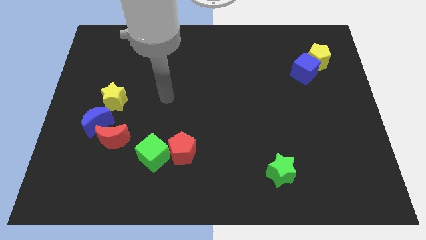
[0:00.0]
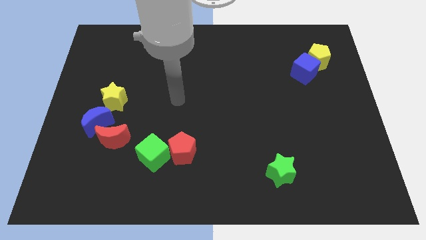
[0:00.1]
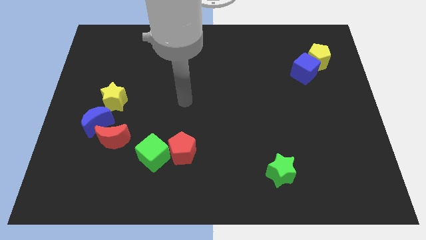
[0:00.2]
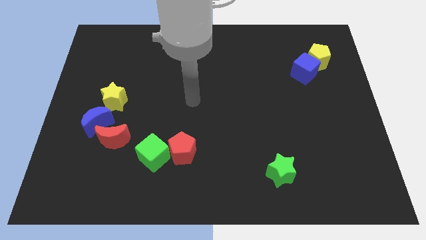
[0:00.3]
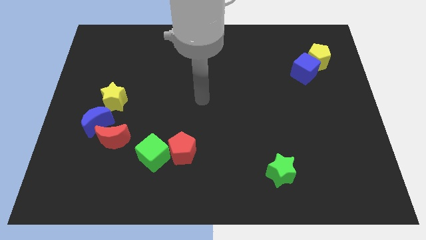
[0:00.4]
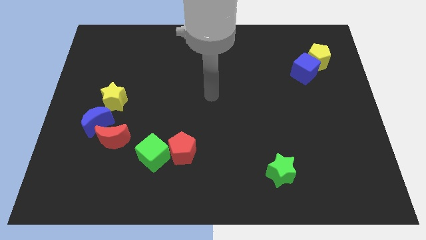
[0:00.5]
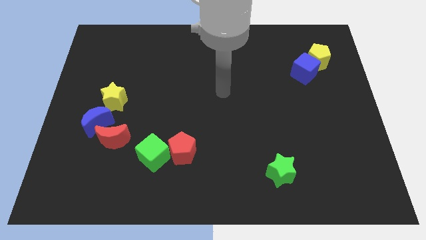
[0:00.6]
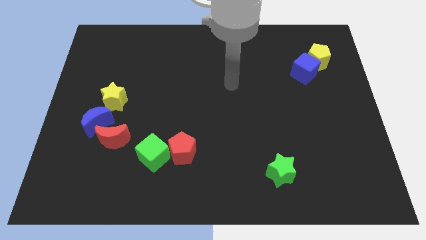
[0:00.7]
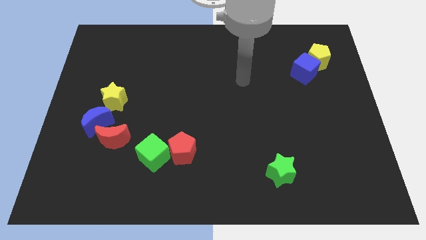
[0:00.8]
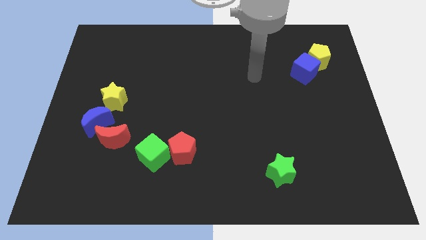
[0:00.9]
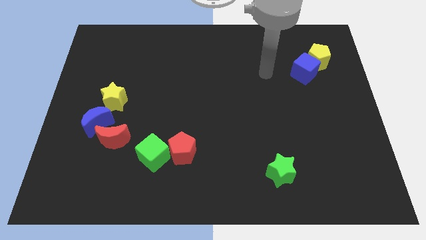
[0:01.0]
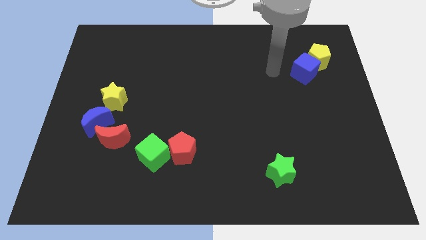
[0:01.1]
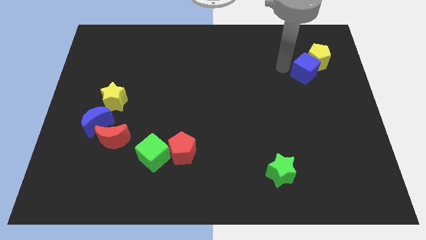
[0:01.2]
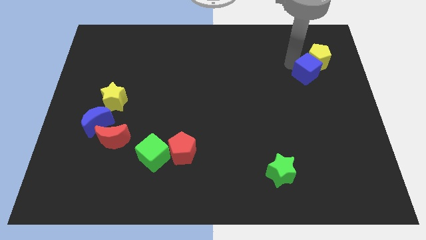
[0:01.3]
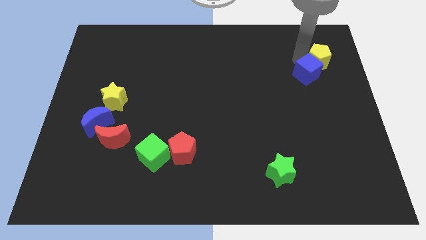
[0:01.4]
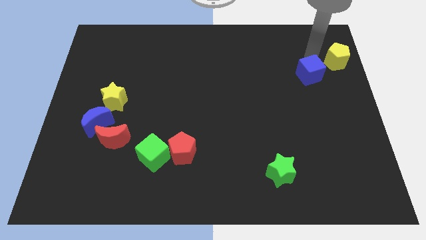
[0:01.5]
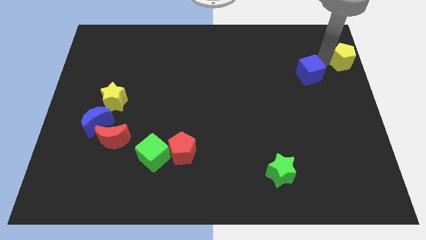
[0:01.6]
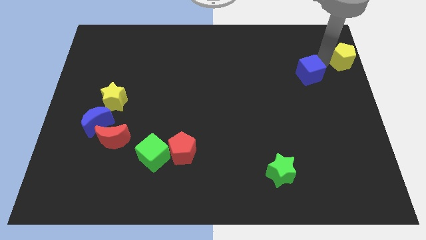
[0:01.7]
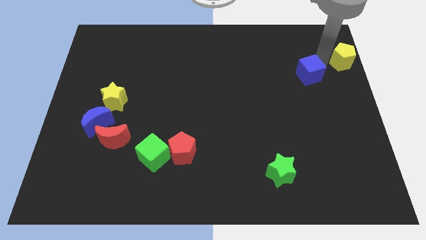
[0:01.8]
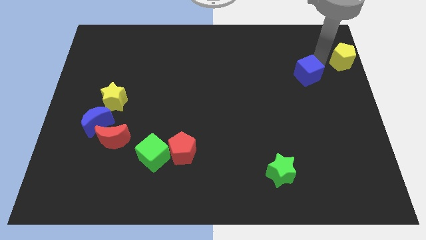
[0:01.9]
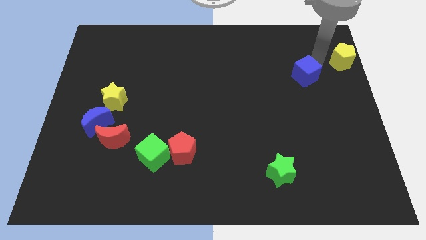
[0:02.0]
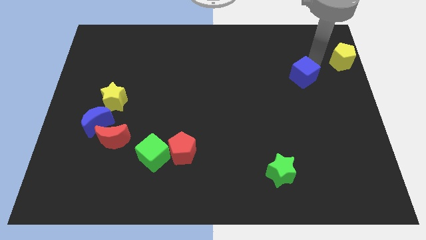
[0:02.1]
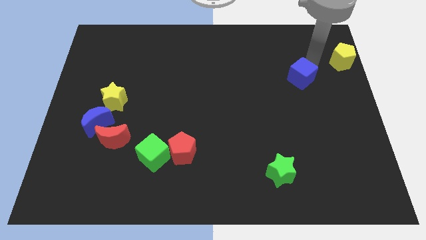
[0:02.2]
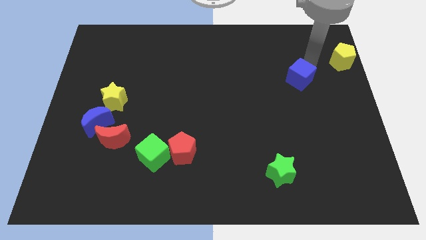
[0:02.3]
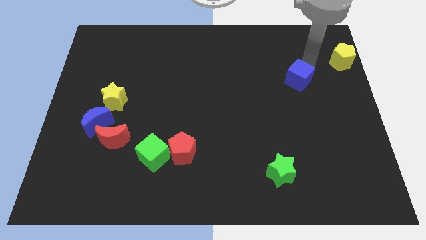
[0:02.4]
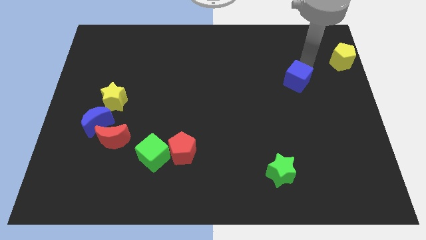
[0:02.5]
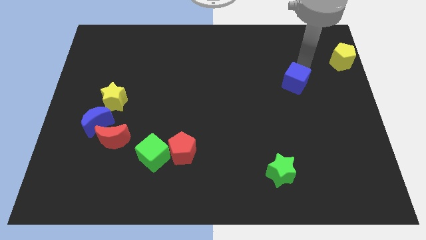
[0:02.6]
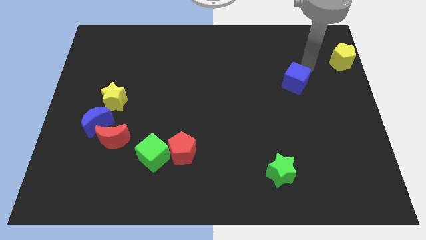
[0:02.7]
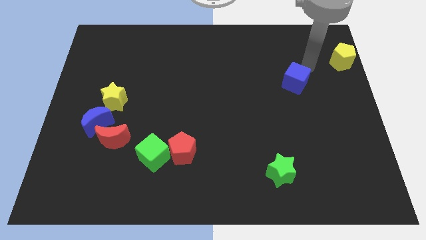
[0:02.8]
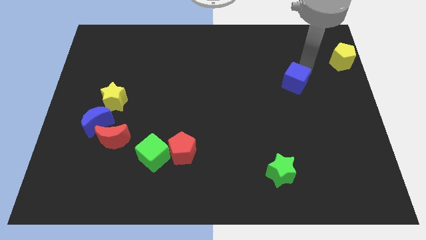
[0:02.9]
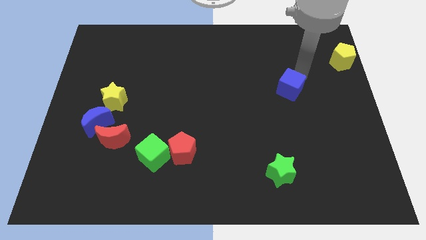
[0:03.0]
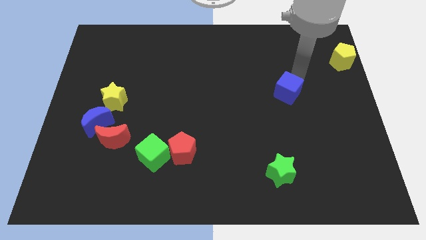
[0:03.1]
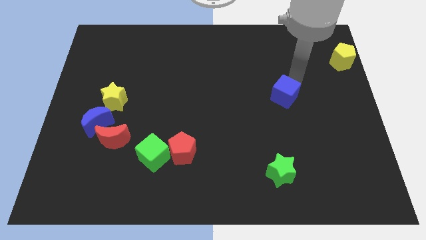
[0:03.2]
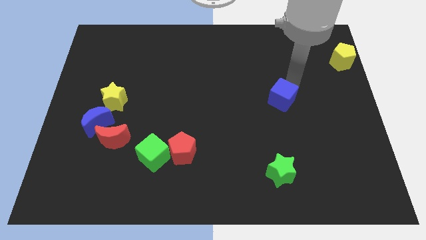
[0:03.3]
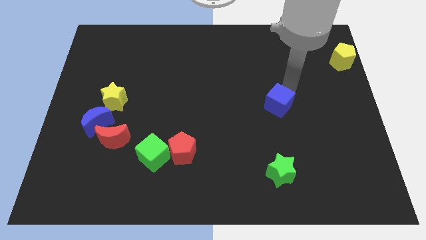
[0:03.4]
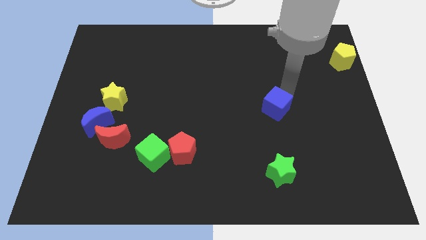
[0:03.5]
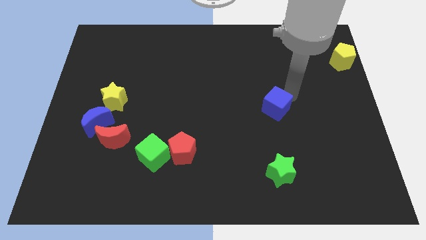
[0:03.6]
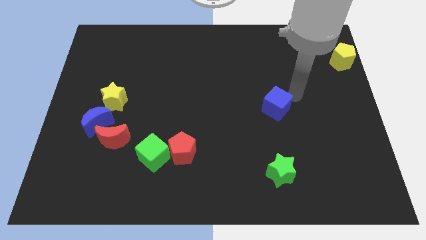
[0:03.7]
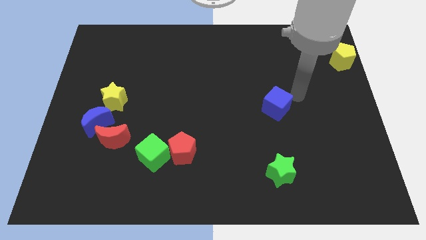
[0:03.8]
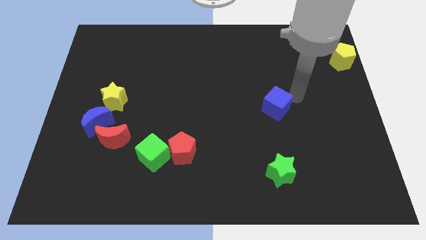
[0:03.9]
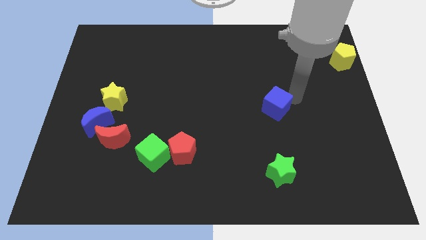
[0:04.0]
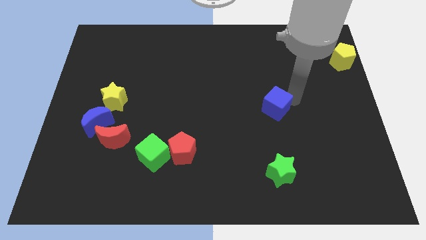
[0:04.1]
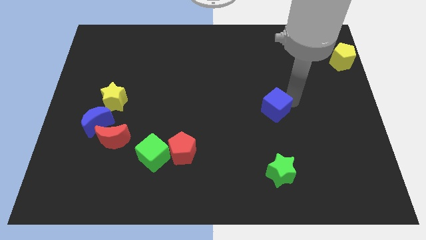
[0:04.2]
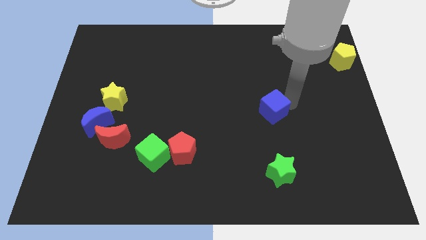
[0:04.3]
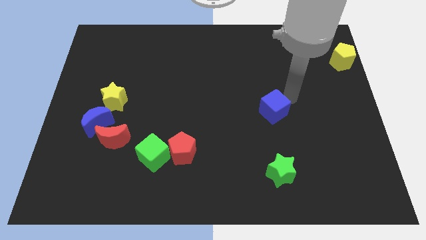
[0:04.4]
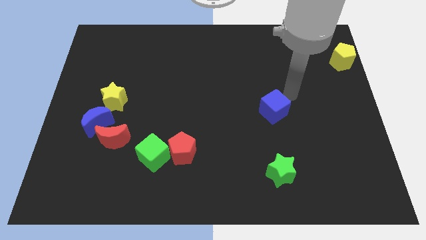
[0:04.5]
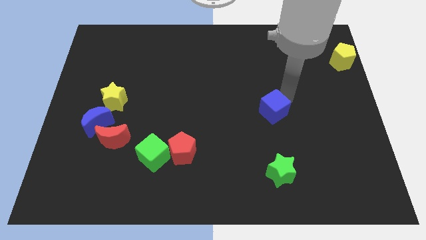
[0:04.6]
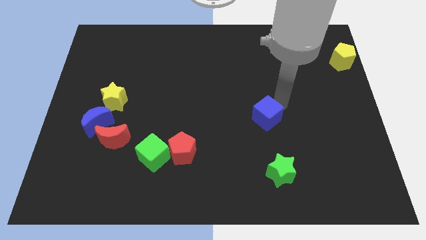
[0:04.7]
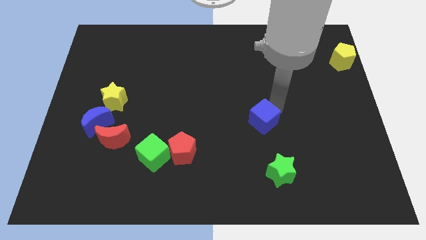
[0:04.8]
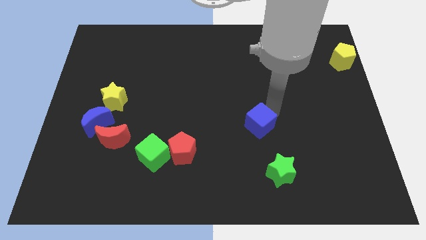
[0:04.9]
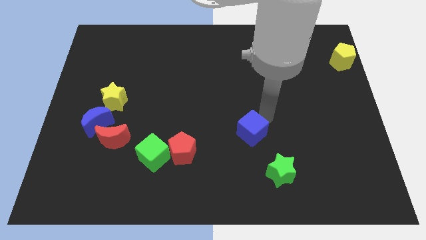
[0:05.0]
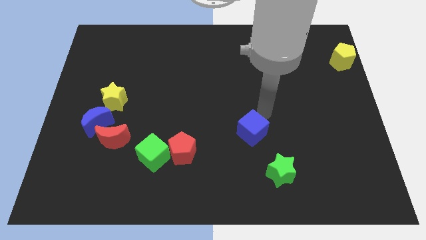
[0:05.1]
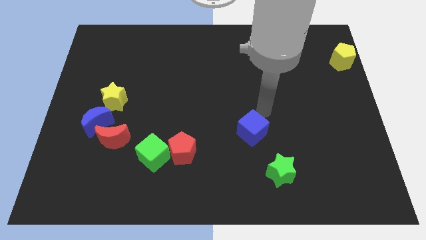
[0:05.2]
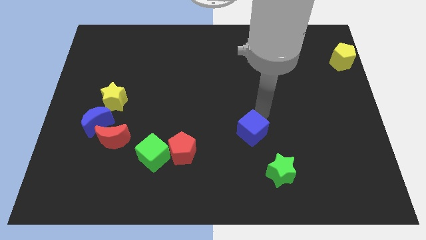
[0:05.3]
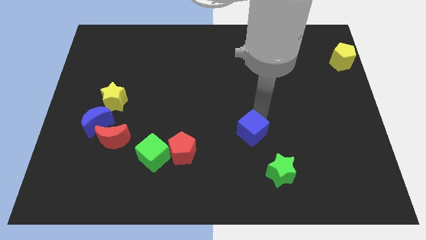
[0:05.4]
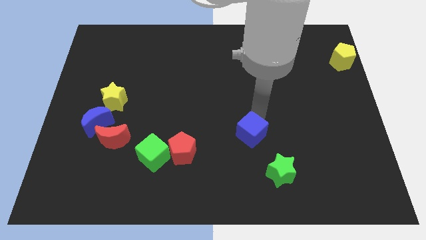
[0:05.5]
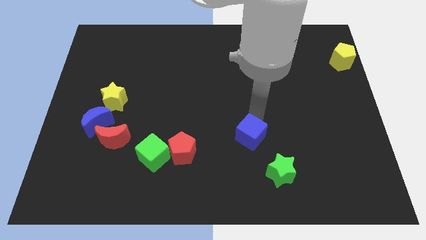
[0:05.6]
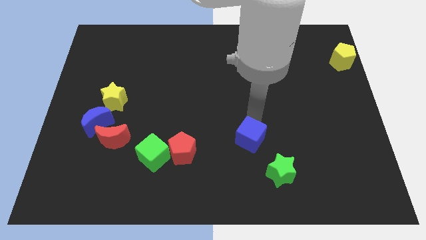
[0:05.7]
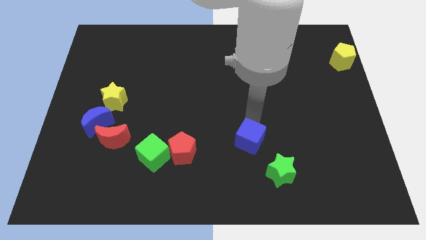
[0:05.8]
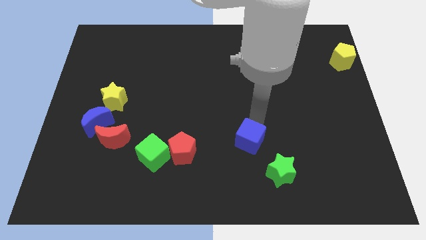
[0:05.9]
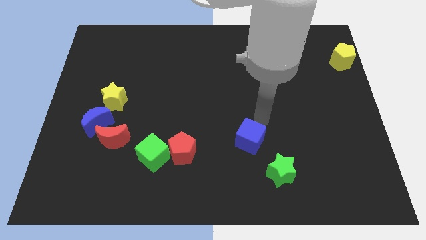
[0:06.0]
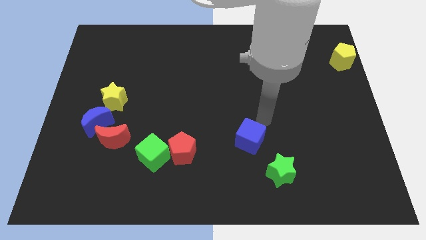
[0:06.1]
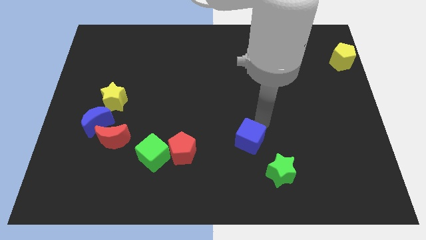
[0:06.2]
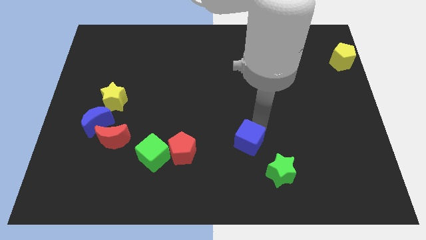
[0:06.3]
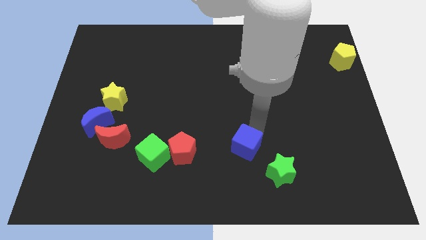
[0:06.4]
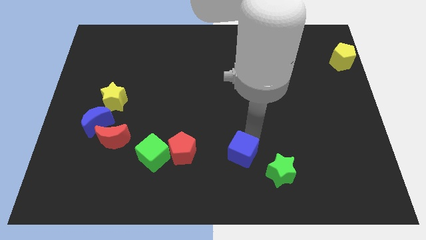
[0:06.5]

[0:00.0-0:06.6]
slide the blue cube just left of the green star

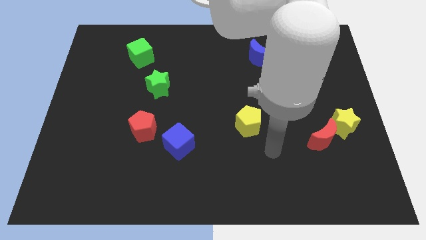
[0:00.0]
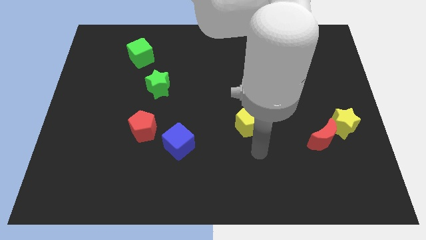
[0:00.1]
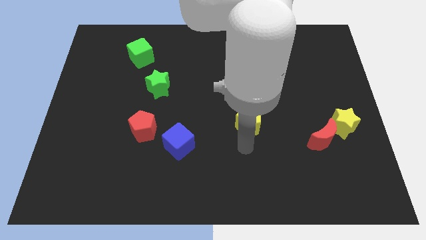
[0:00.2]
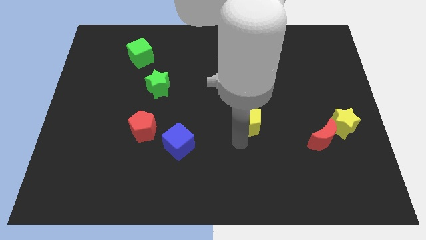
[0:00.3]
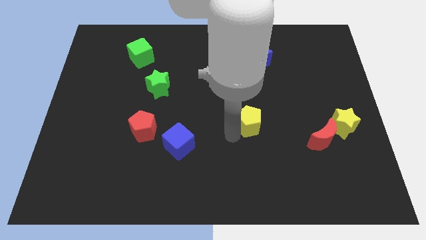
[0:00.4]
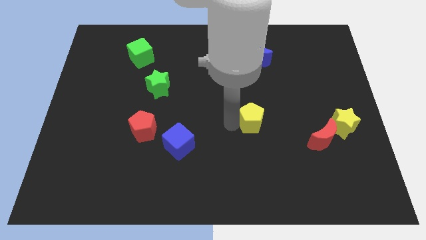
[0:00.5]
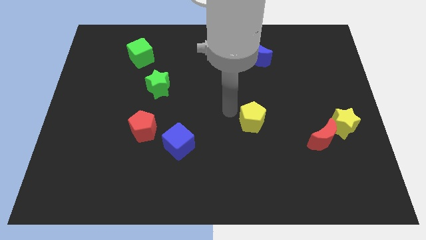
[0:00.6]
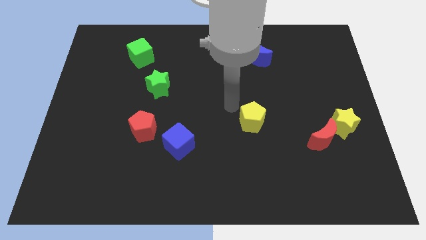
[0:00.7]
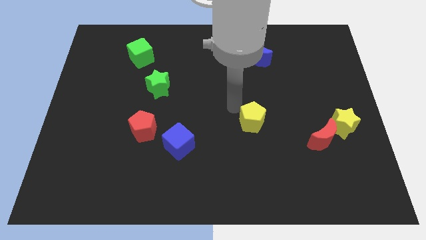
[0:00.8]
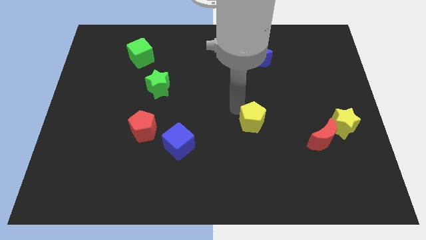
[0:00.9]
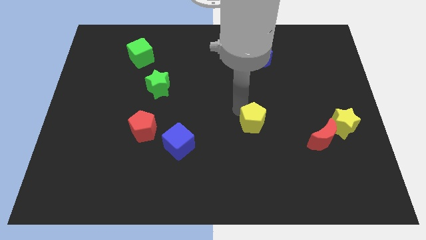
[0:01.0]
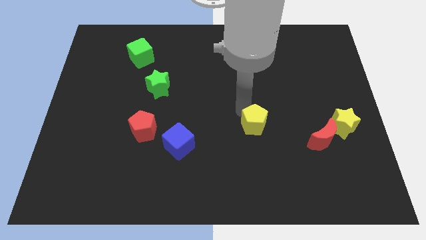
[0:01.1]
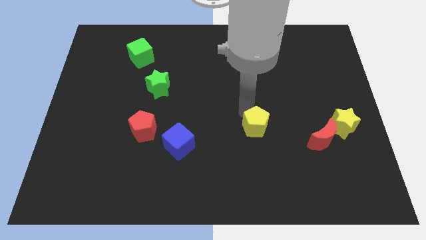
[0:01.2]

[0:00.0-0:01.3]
push the yellow pentagon to the left side of the red moon
